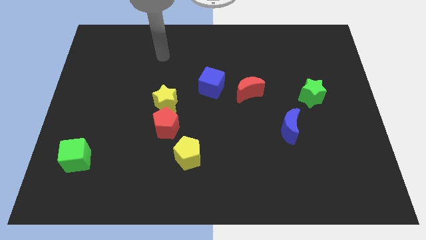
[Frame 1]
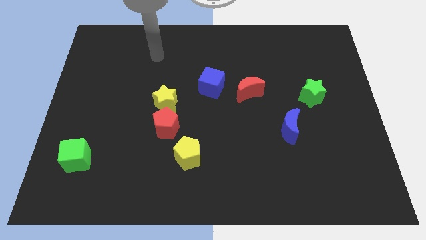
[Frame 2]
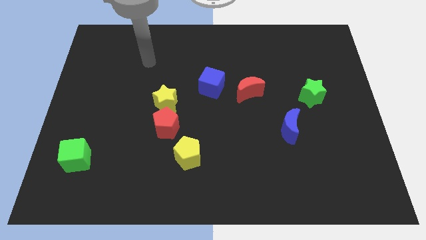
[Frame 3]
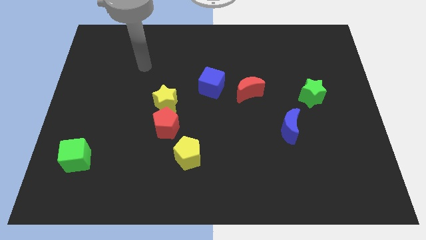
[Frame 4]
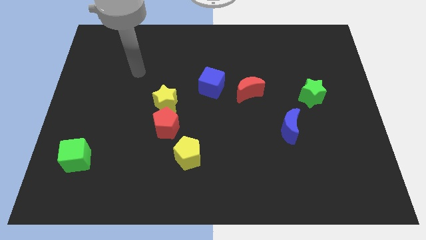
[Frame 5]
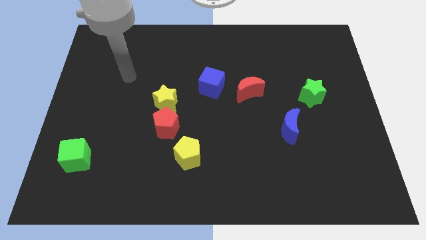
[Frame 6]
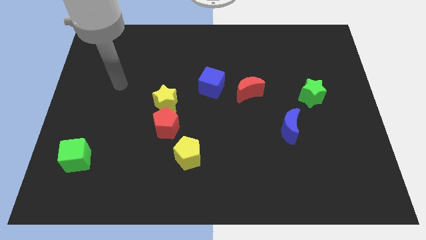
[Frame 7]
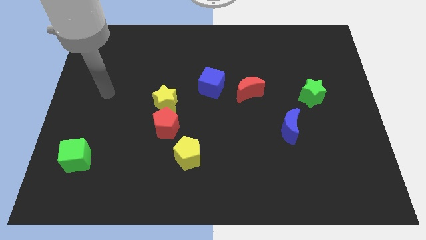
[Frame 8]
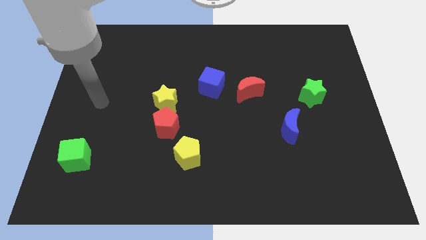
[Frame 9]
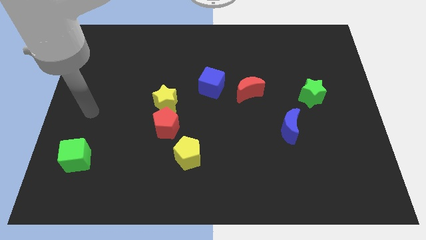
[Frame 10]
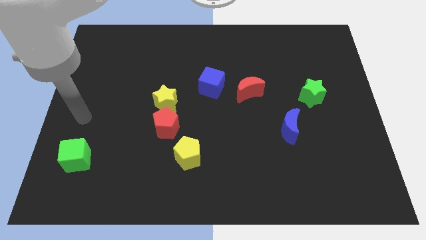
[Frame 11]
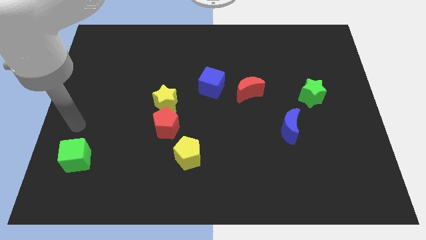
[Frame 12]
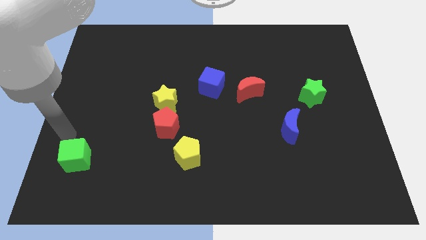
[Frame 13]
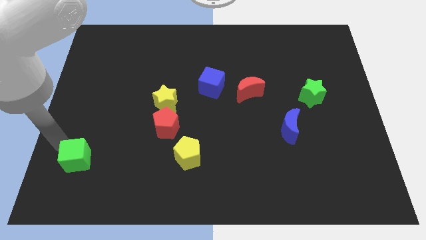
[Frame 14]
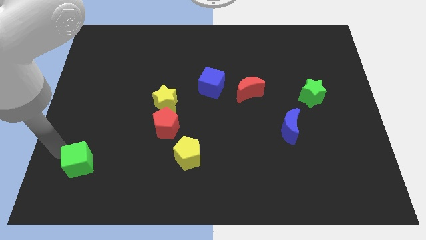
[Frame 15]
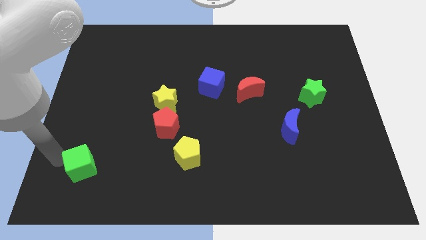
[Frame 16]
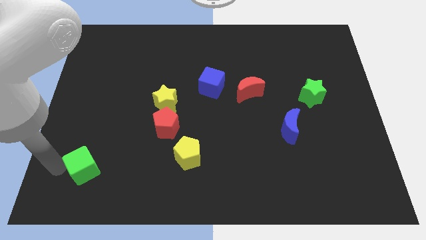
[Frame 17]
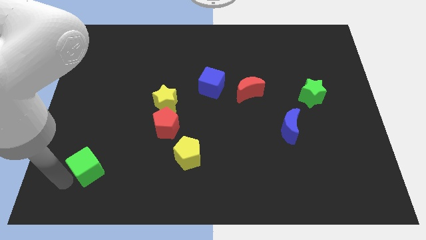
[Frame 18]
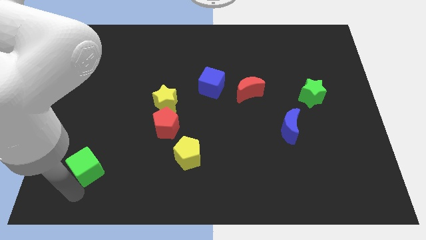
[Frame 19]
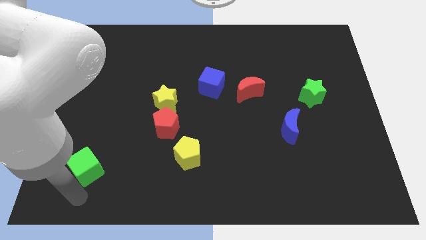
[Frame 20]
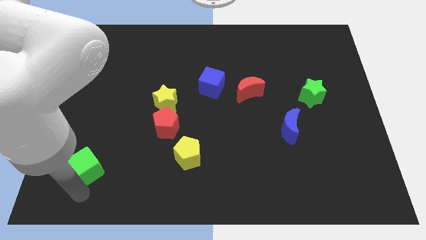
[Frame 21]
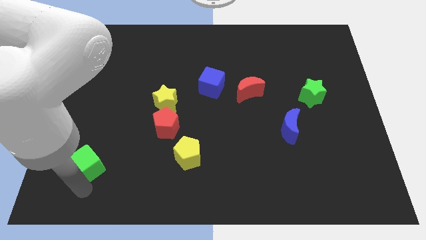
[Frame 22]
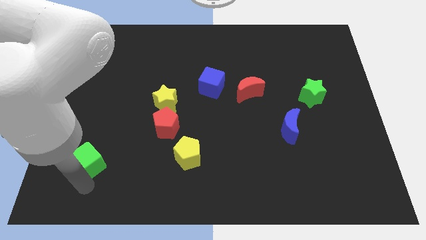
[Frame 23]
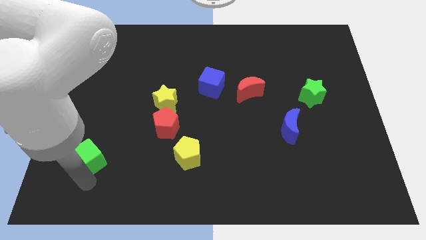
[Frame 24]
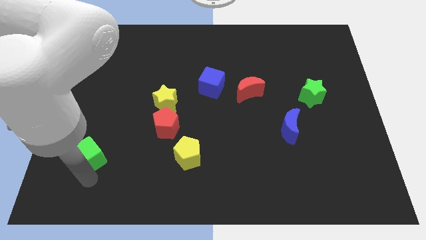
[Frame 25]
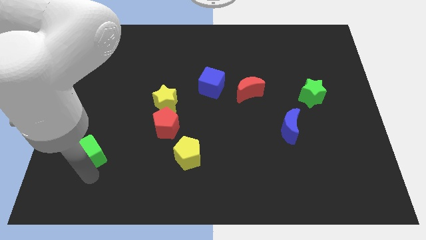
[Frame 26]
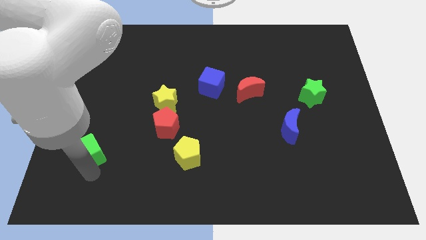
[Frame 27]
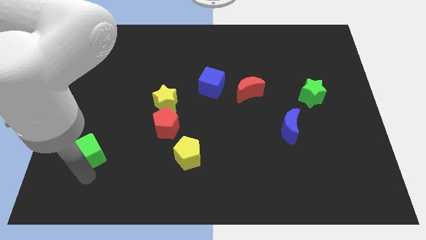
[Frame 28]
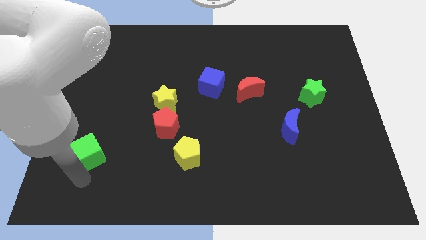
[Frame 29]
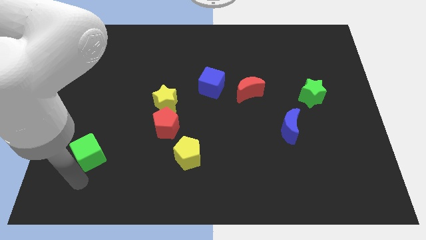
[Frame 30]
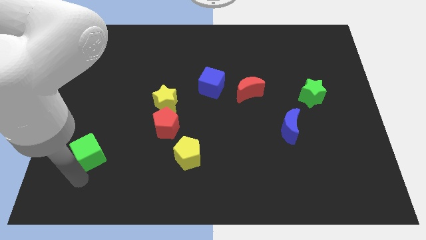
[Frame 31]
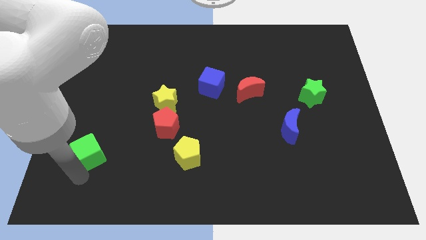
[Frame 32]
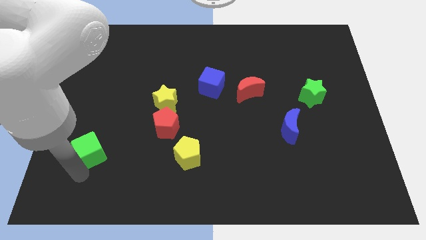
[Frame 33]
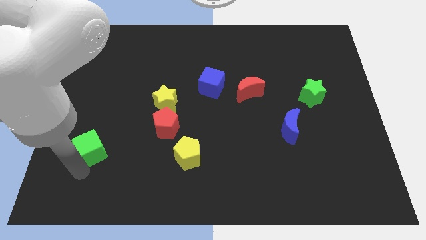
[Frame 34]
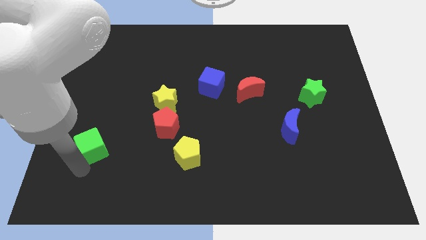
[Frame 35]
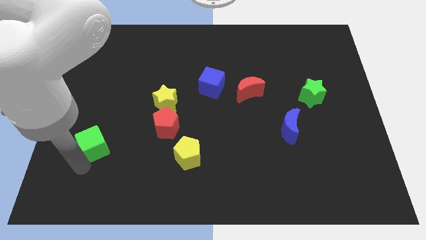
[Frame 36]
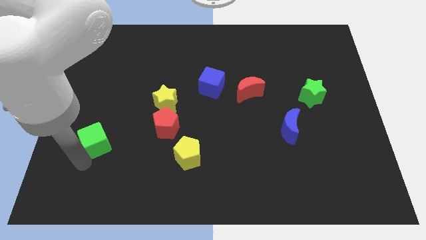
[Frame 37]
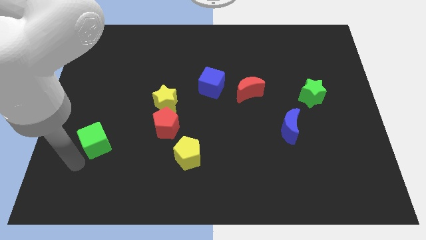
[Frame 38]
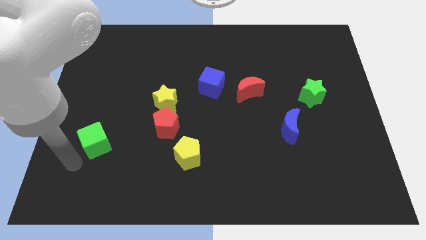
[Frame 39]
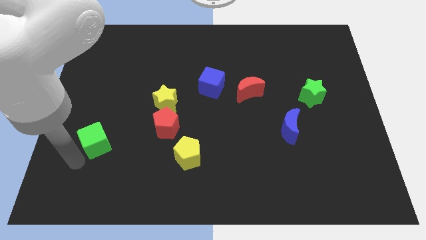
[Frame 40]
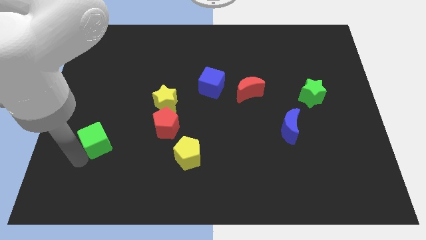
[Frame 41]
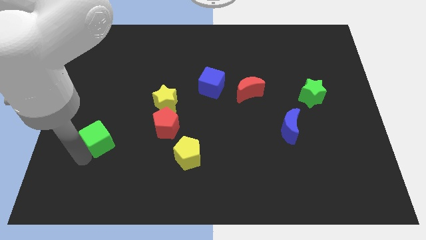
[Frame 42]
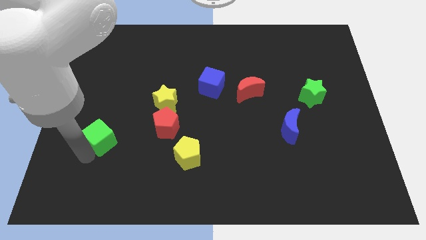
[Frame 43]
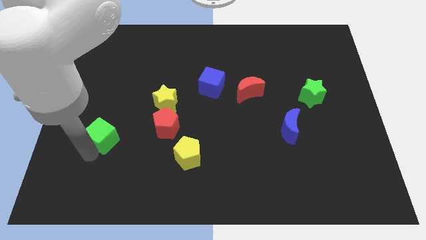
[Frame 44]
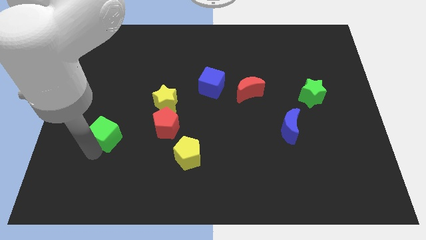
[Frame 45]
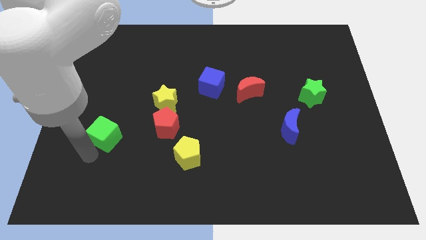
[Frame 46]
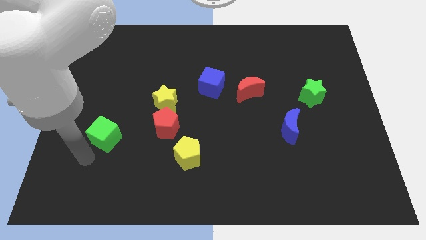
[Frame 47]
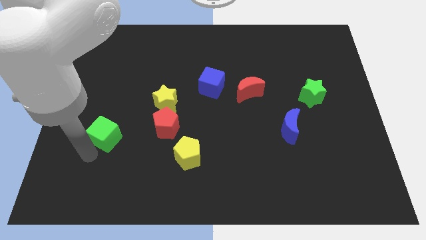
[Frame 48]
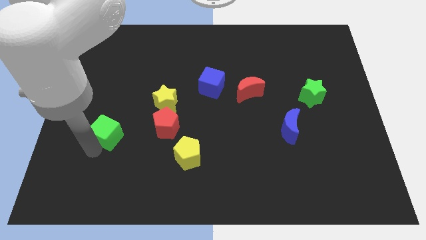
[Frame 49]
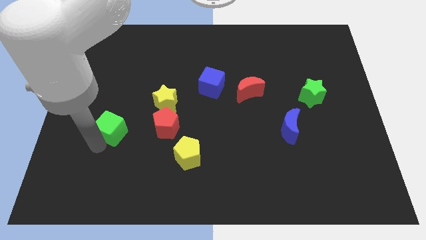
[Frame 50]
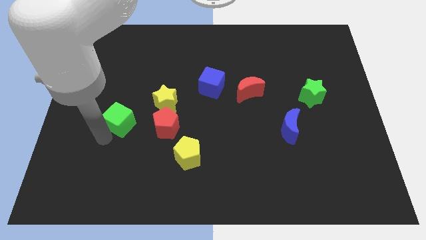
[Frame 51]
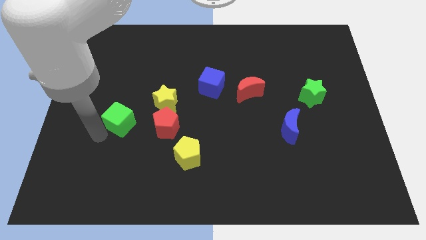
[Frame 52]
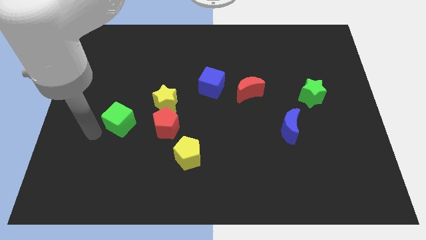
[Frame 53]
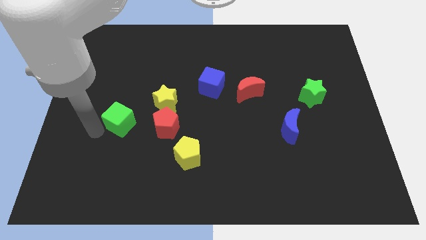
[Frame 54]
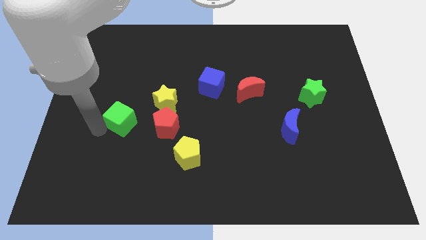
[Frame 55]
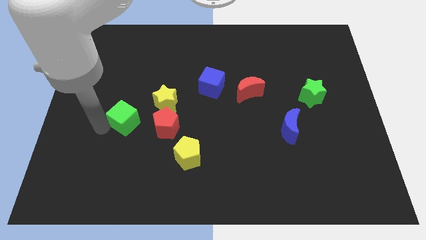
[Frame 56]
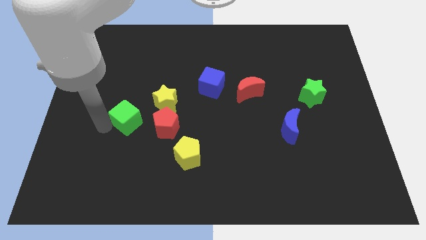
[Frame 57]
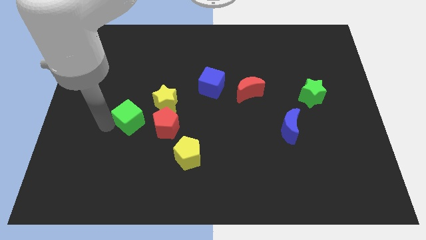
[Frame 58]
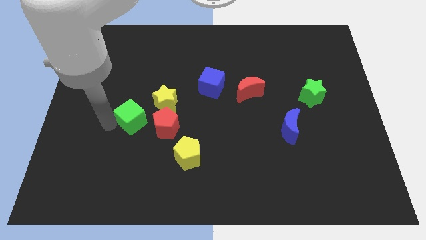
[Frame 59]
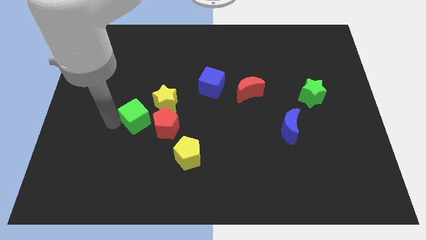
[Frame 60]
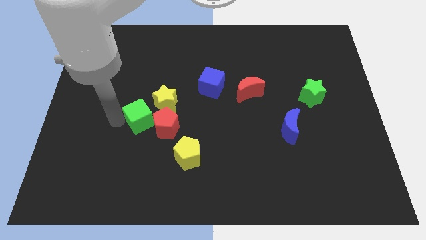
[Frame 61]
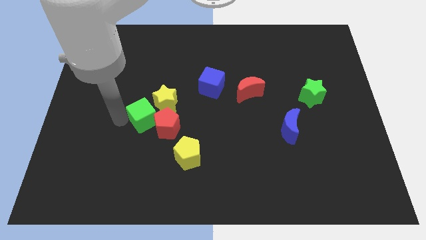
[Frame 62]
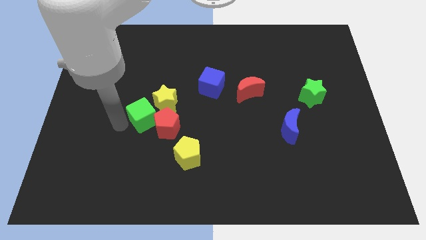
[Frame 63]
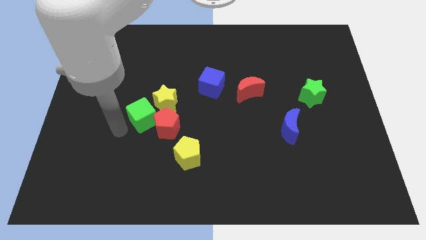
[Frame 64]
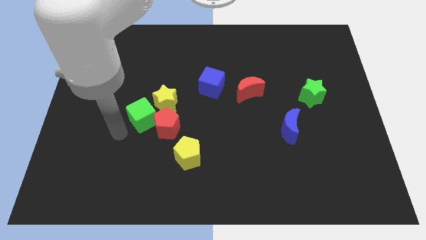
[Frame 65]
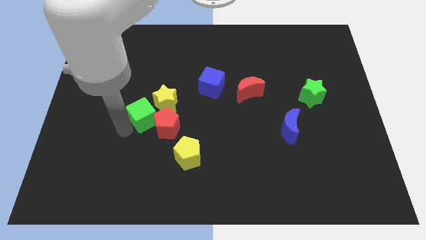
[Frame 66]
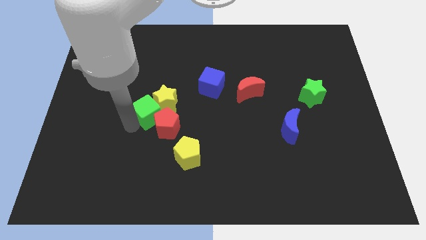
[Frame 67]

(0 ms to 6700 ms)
slide the green cube next to the yellow star

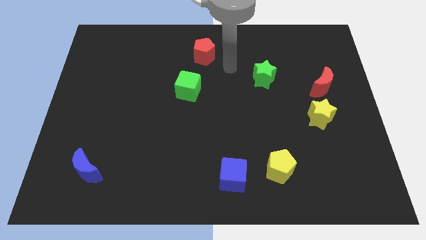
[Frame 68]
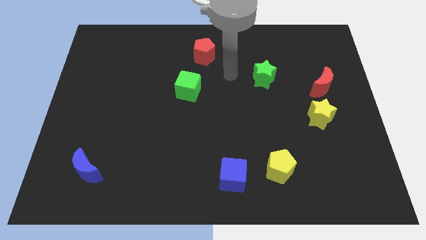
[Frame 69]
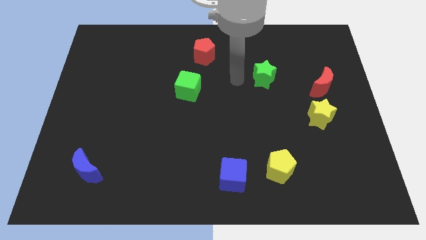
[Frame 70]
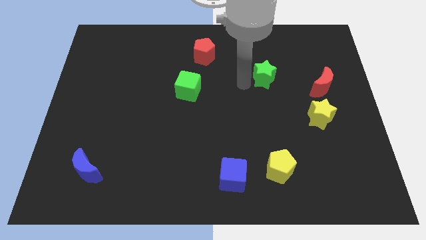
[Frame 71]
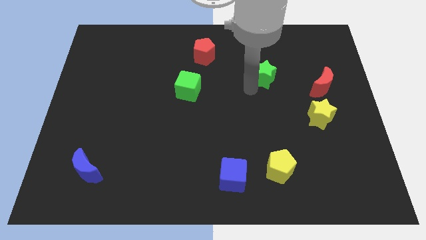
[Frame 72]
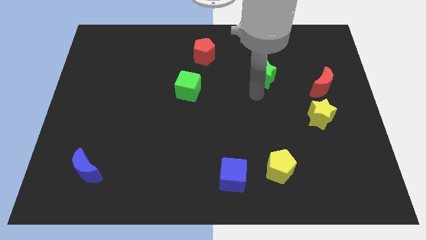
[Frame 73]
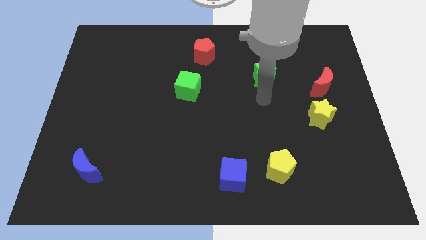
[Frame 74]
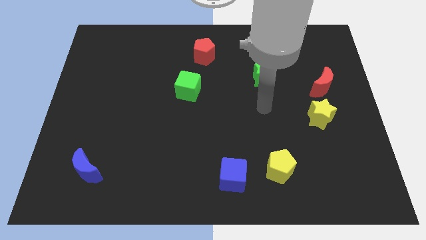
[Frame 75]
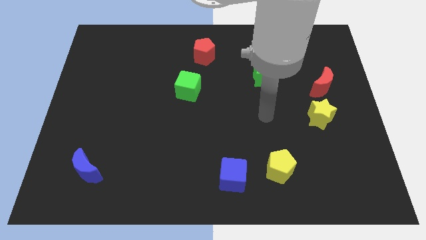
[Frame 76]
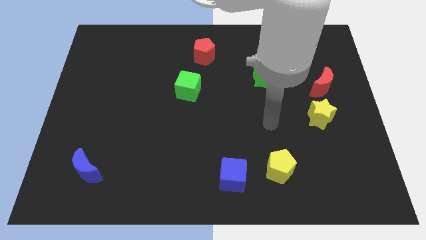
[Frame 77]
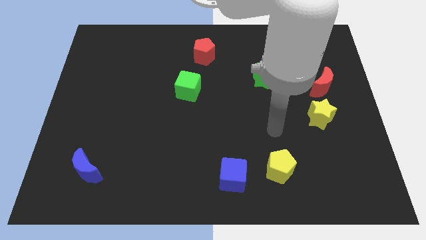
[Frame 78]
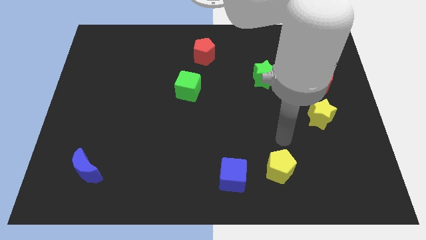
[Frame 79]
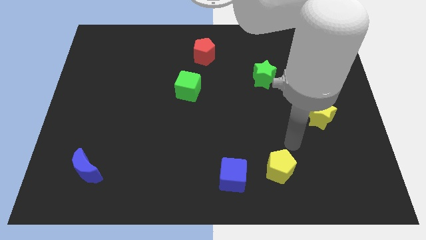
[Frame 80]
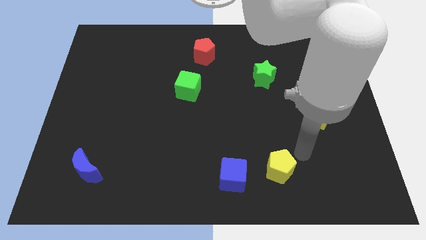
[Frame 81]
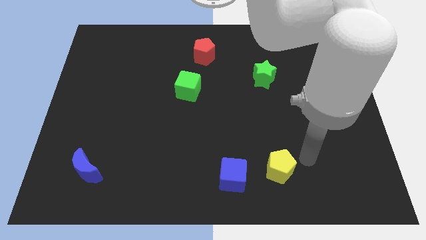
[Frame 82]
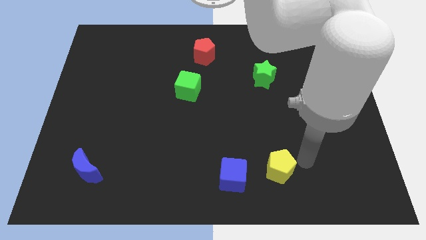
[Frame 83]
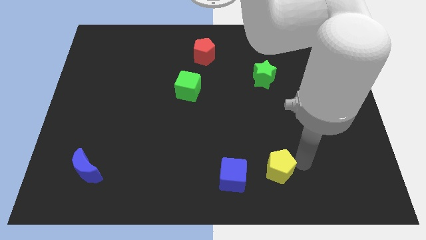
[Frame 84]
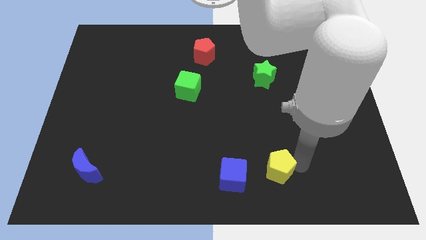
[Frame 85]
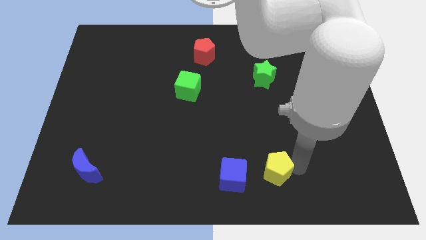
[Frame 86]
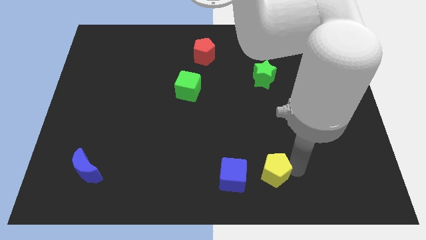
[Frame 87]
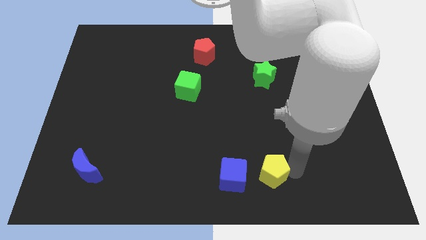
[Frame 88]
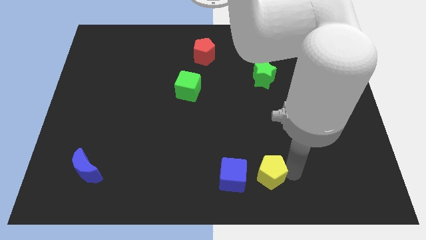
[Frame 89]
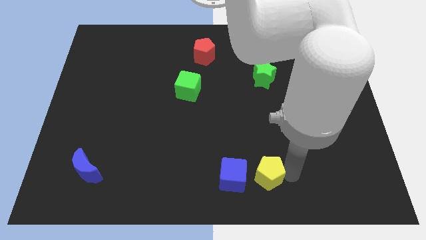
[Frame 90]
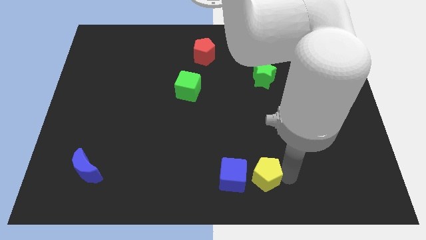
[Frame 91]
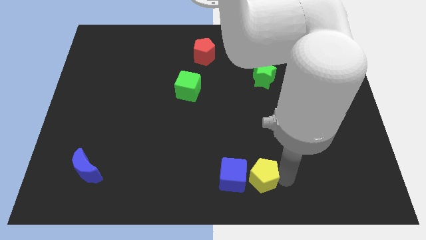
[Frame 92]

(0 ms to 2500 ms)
slide the yellow pentagon close to the blue cube
